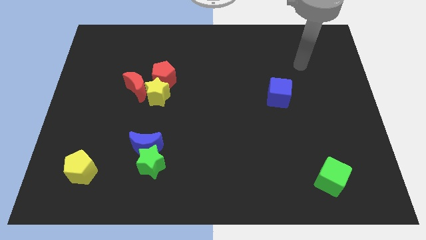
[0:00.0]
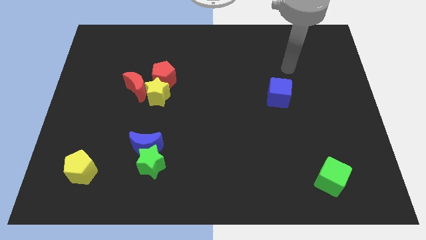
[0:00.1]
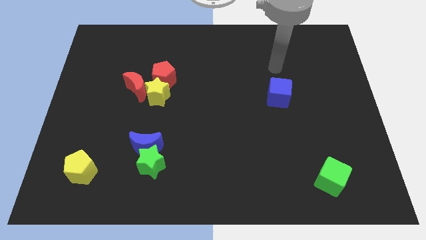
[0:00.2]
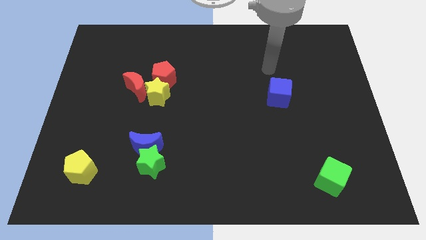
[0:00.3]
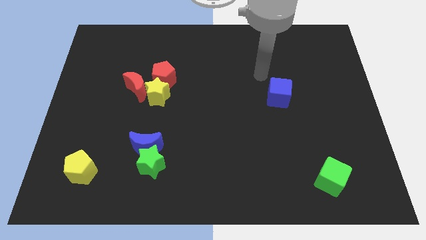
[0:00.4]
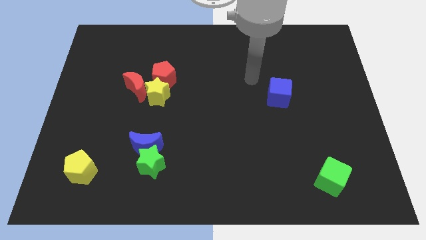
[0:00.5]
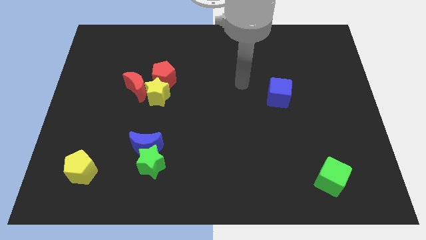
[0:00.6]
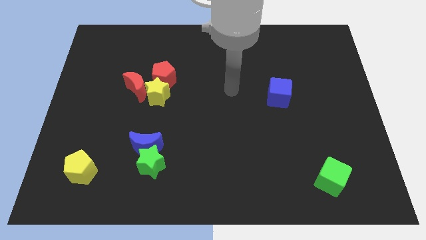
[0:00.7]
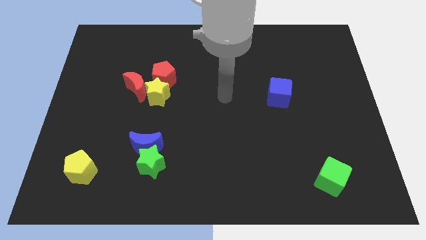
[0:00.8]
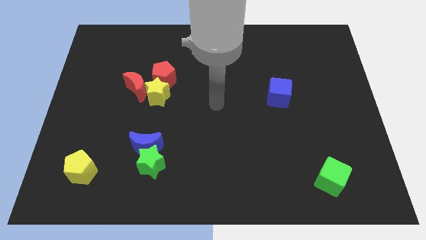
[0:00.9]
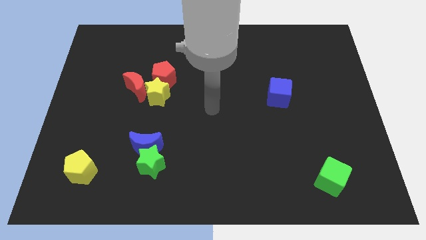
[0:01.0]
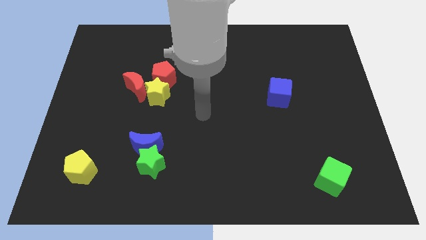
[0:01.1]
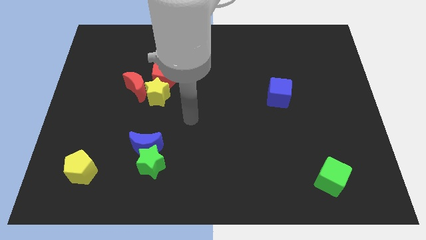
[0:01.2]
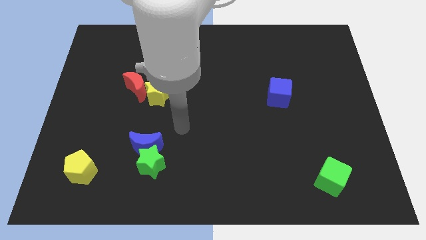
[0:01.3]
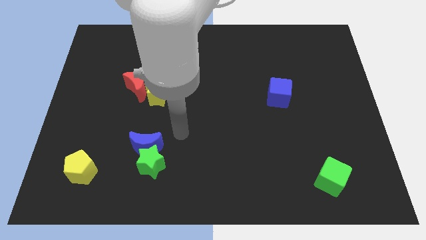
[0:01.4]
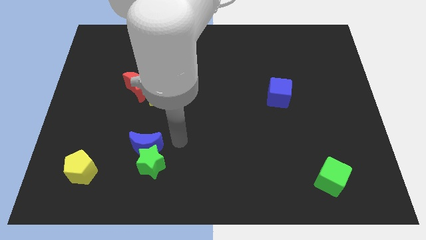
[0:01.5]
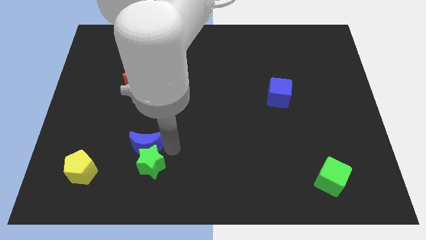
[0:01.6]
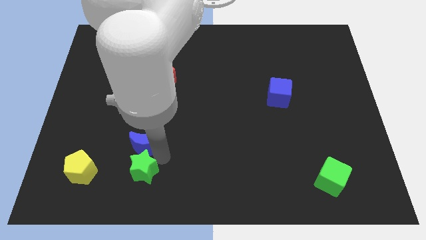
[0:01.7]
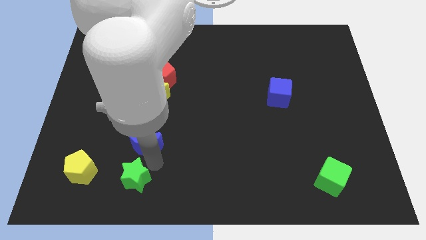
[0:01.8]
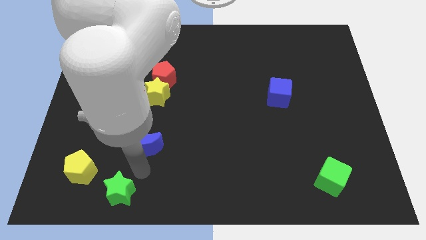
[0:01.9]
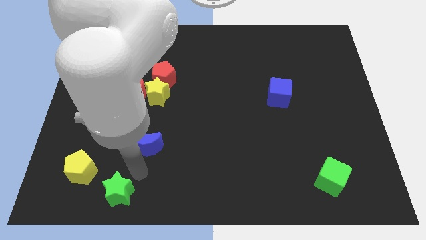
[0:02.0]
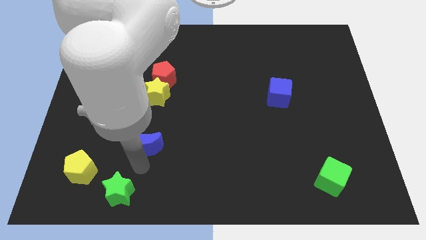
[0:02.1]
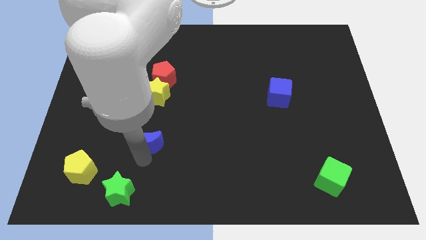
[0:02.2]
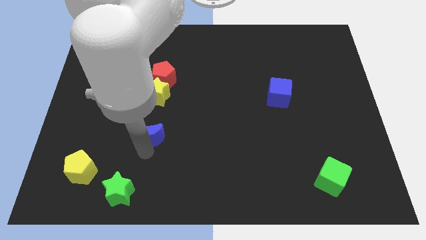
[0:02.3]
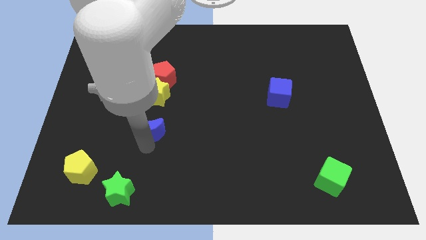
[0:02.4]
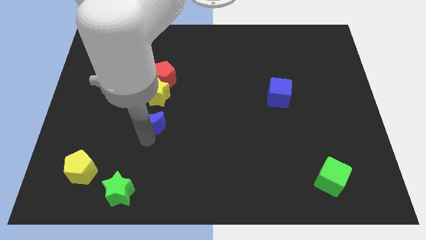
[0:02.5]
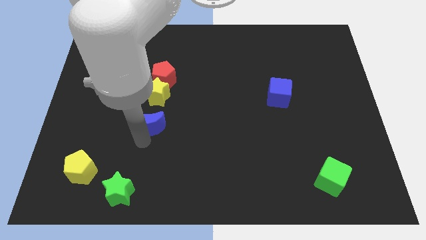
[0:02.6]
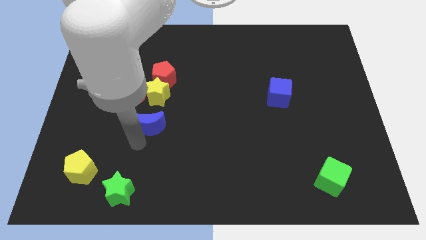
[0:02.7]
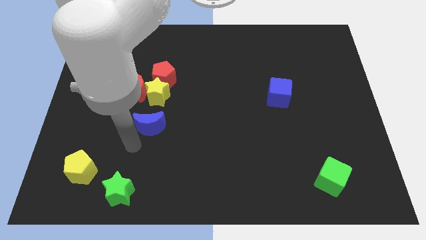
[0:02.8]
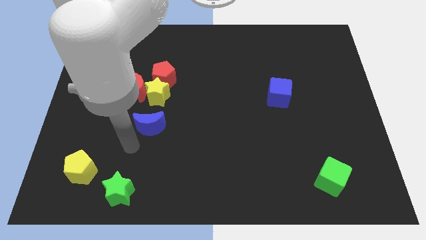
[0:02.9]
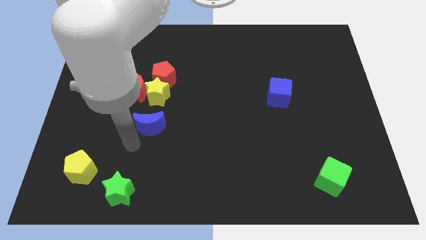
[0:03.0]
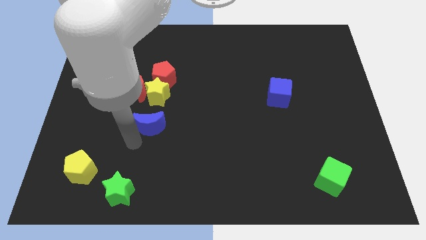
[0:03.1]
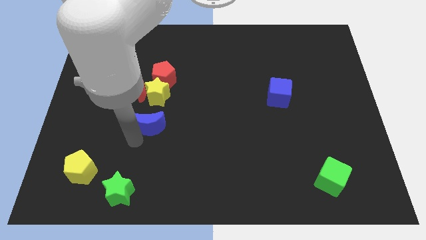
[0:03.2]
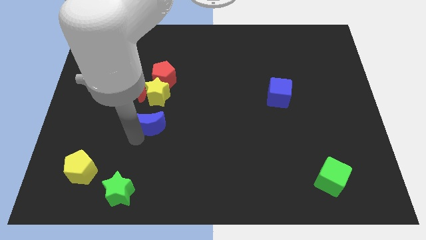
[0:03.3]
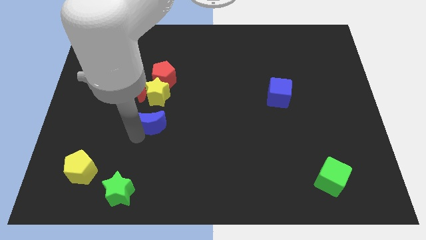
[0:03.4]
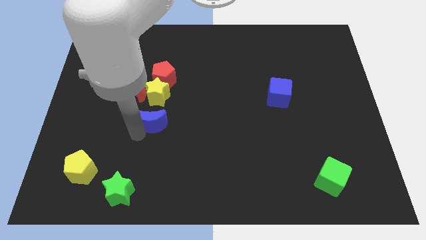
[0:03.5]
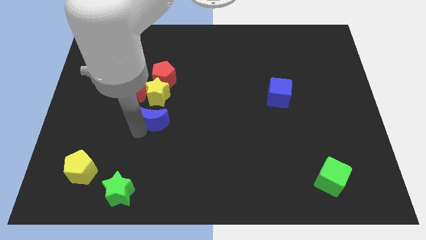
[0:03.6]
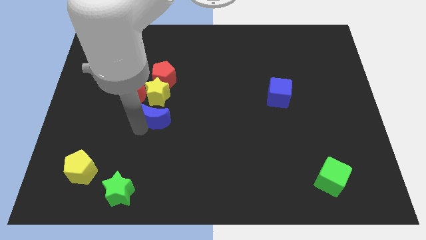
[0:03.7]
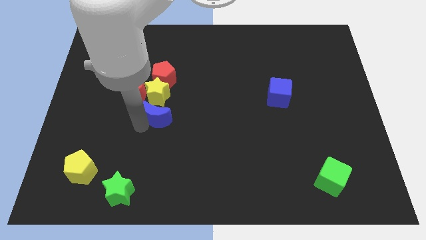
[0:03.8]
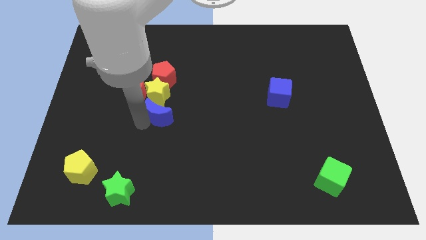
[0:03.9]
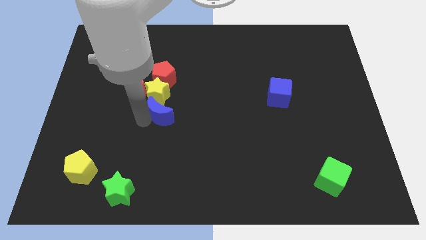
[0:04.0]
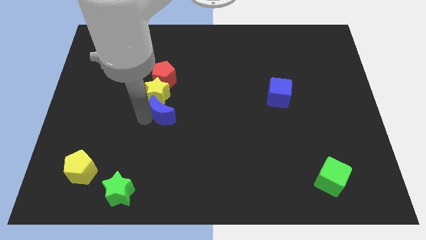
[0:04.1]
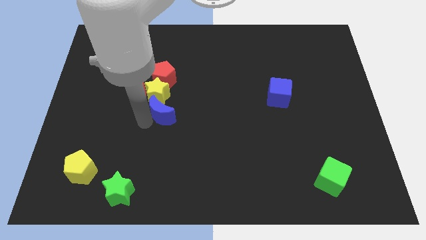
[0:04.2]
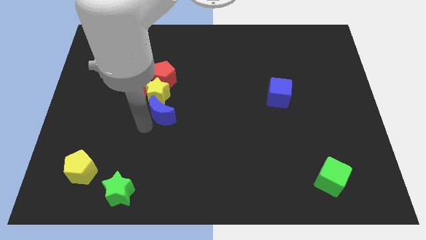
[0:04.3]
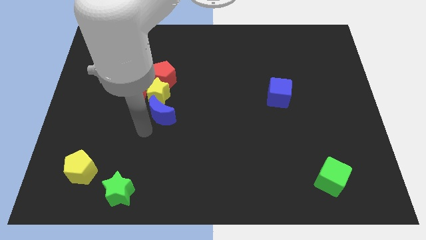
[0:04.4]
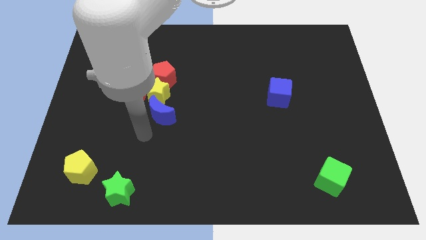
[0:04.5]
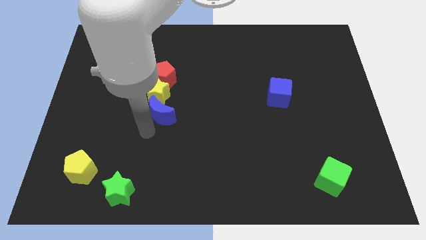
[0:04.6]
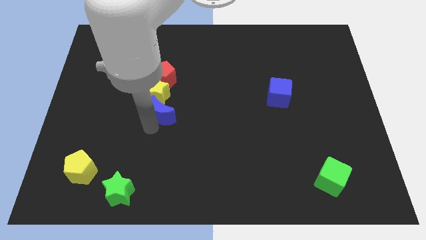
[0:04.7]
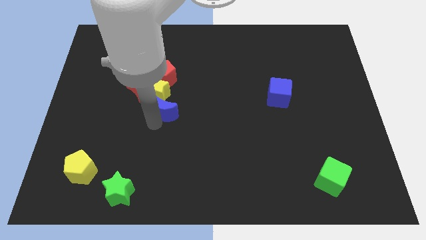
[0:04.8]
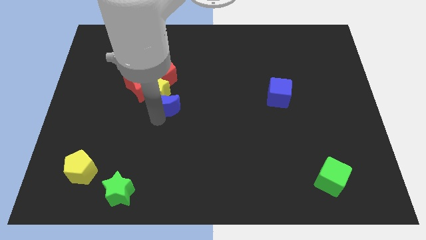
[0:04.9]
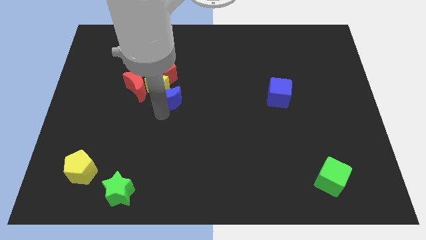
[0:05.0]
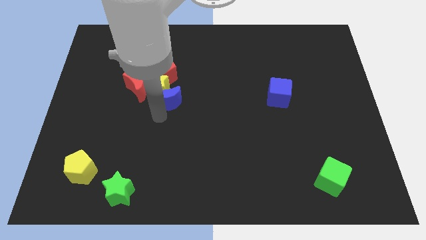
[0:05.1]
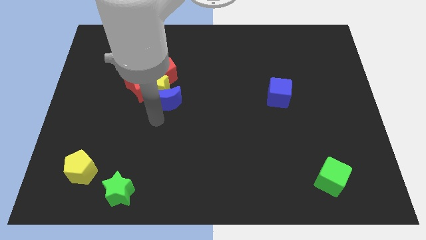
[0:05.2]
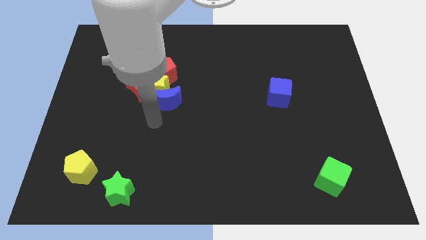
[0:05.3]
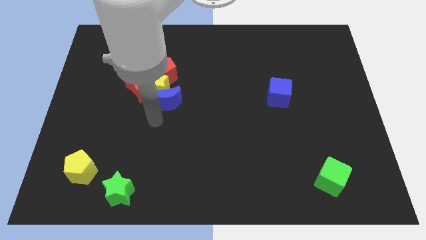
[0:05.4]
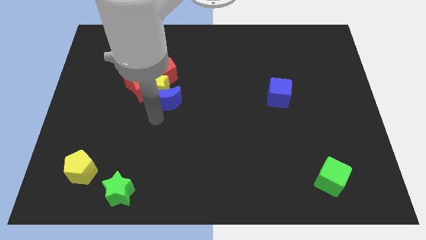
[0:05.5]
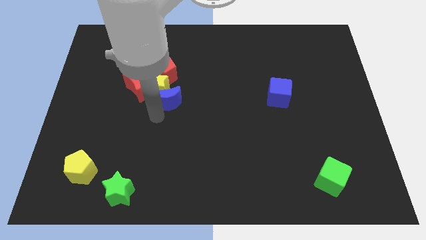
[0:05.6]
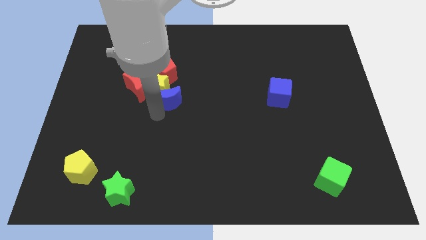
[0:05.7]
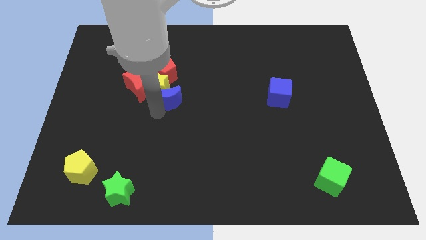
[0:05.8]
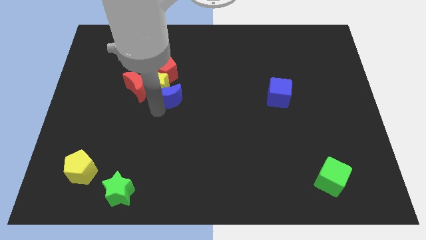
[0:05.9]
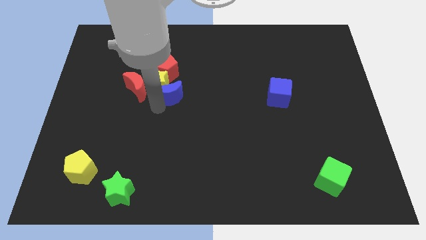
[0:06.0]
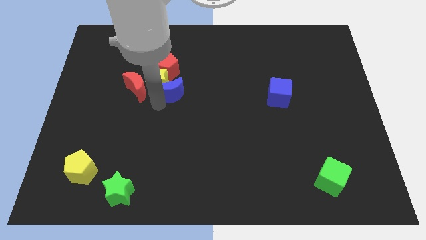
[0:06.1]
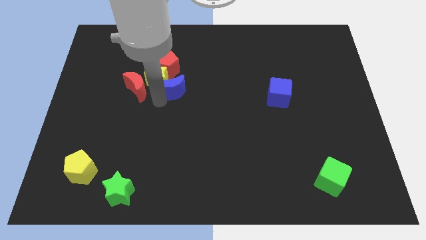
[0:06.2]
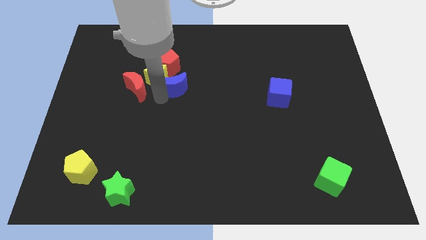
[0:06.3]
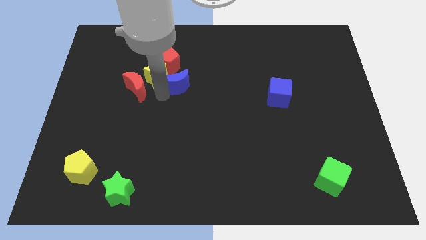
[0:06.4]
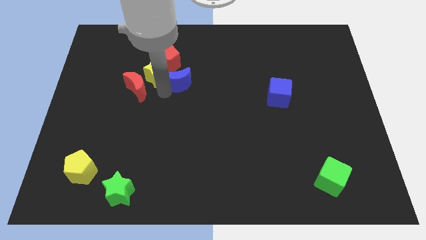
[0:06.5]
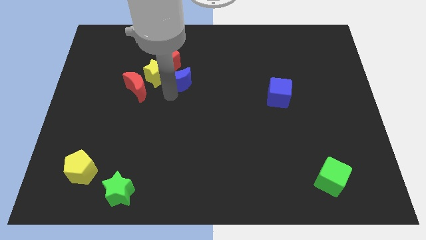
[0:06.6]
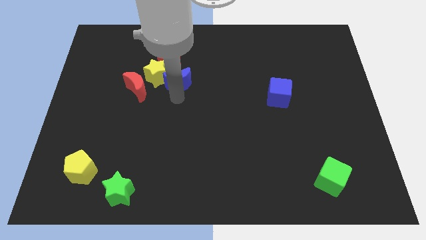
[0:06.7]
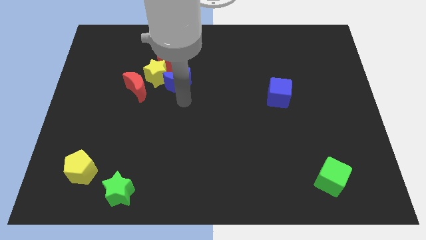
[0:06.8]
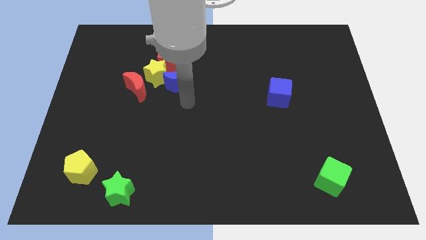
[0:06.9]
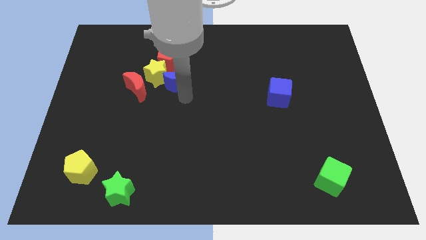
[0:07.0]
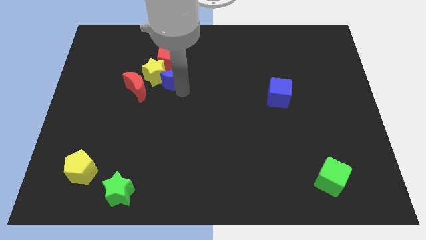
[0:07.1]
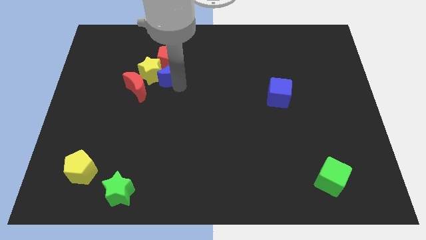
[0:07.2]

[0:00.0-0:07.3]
put the blue moon close to the red pentagon

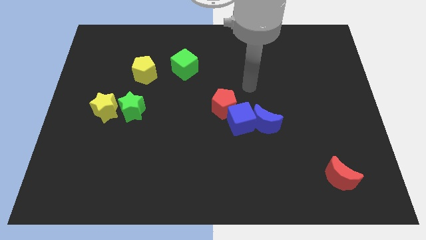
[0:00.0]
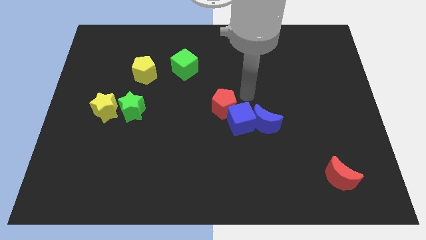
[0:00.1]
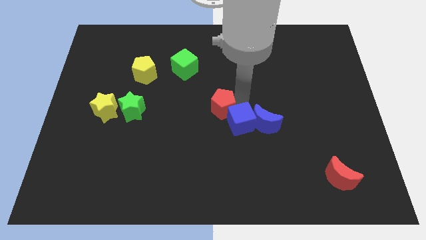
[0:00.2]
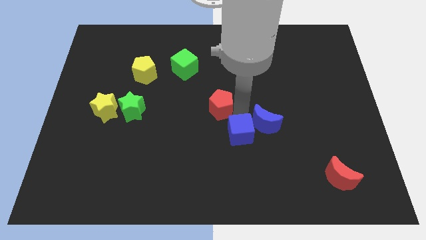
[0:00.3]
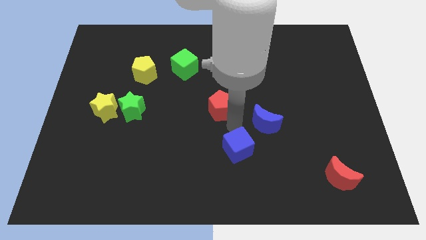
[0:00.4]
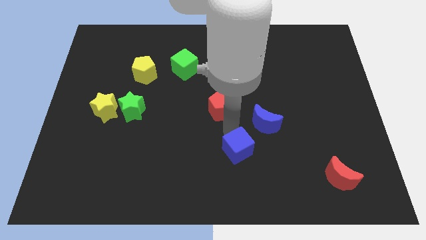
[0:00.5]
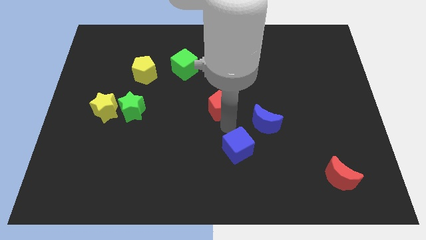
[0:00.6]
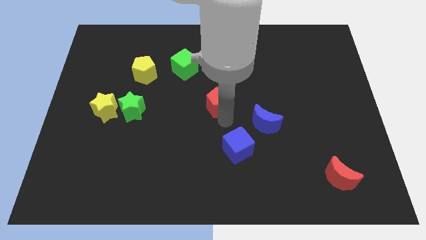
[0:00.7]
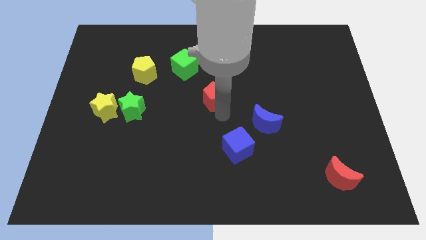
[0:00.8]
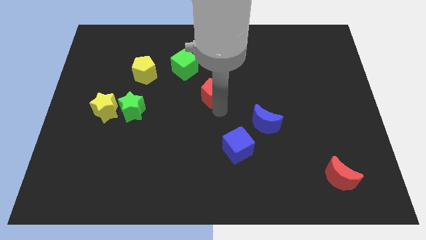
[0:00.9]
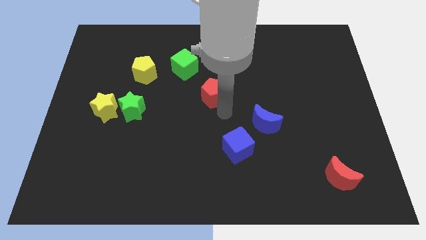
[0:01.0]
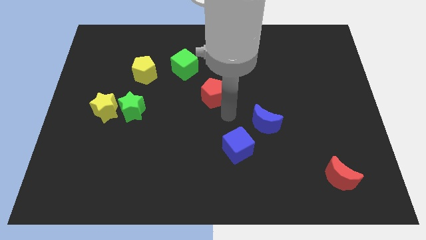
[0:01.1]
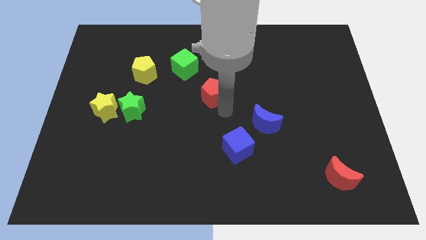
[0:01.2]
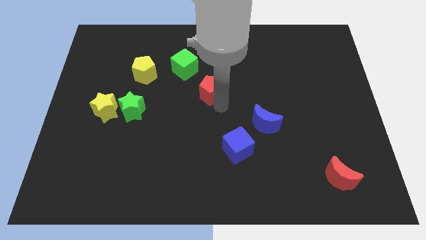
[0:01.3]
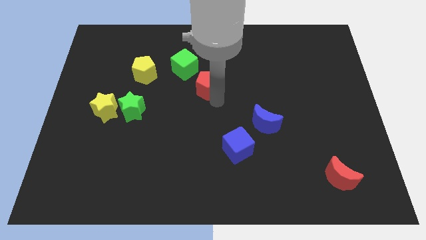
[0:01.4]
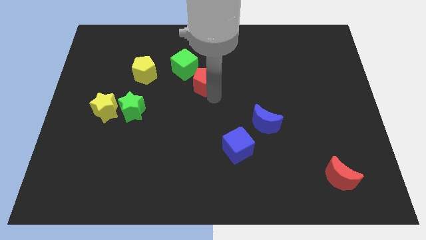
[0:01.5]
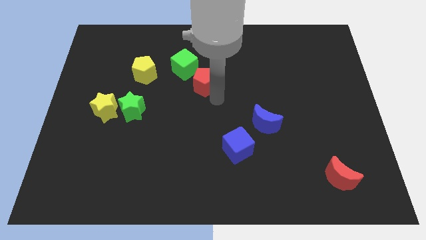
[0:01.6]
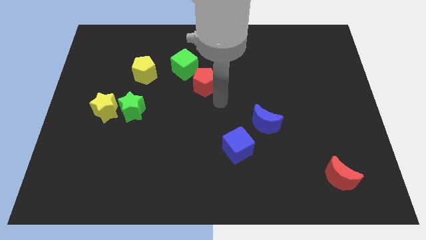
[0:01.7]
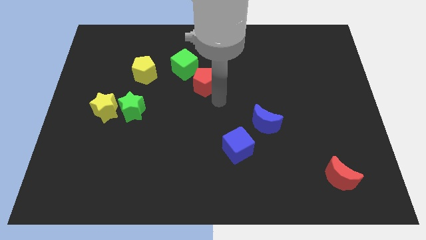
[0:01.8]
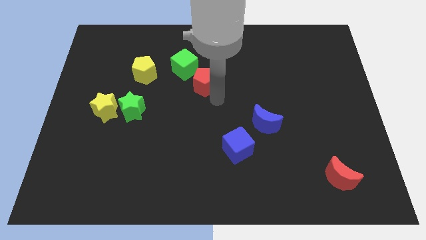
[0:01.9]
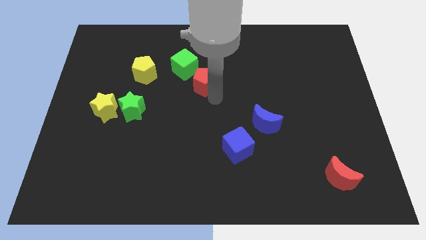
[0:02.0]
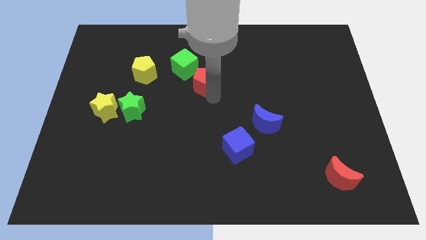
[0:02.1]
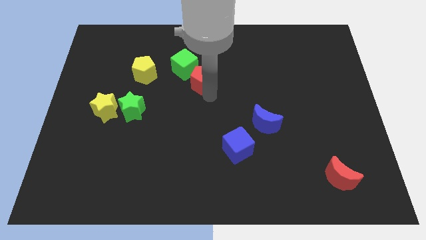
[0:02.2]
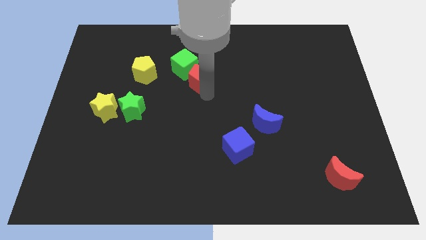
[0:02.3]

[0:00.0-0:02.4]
put the red pentagon to the green cube
